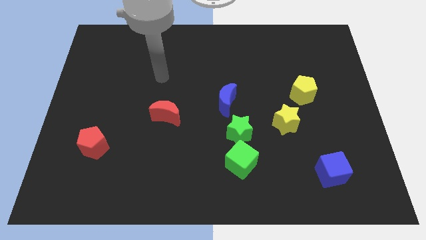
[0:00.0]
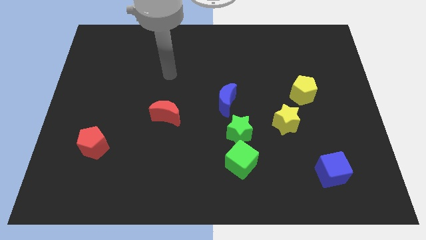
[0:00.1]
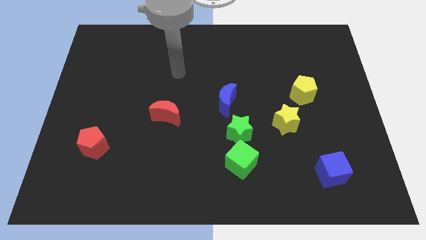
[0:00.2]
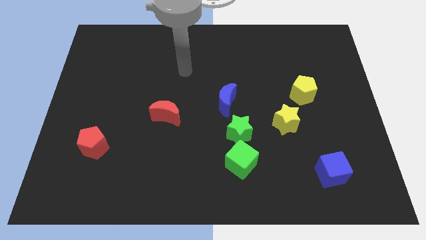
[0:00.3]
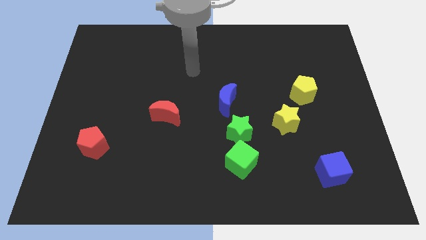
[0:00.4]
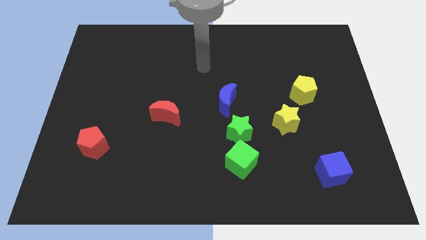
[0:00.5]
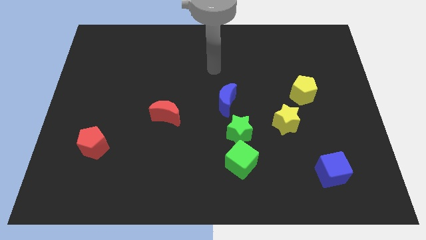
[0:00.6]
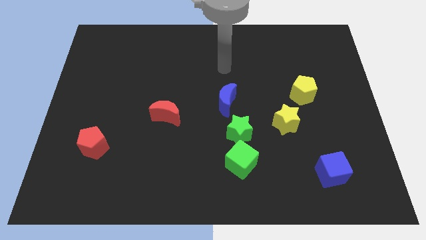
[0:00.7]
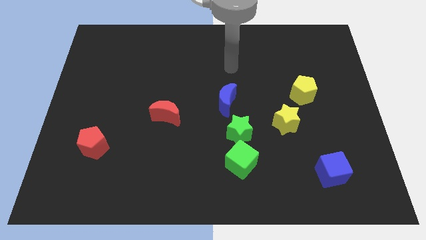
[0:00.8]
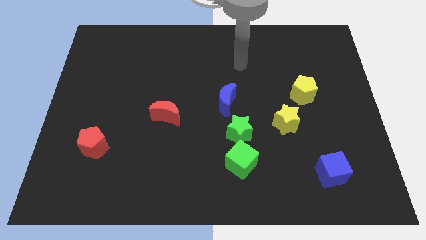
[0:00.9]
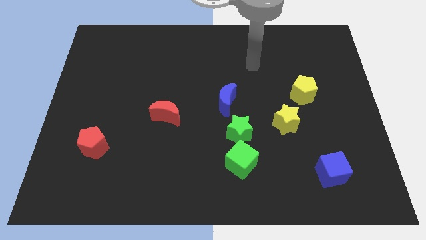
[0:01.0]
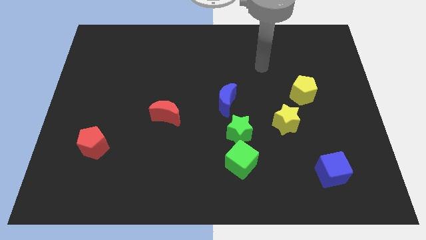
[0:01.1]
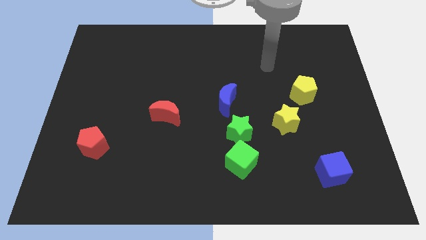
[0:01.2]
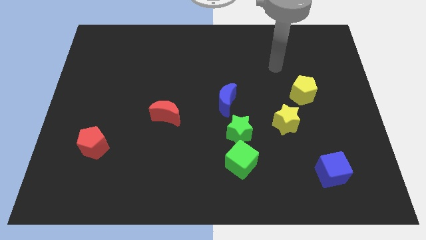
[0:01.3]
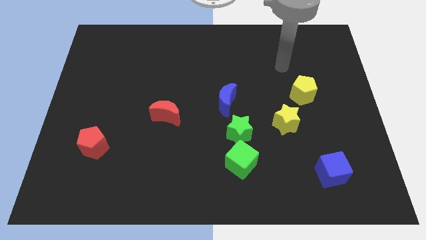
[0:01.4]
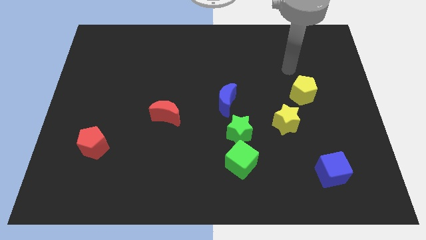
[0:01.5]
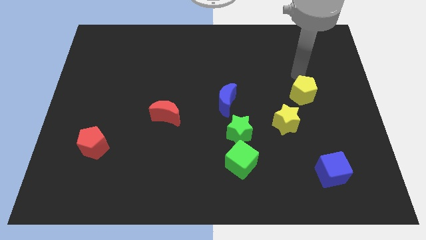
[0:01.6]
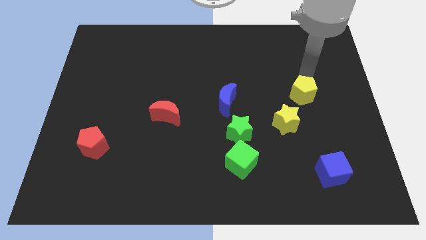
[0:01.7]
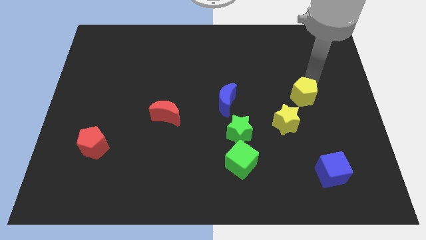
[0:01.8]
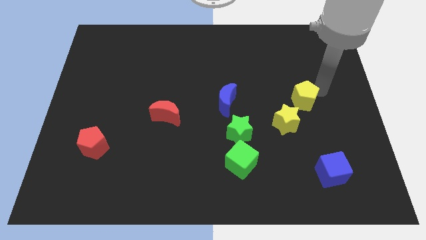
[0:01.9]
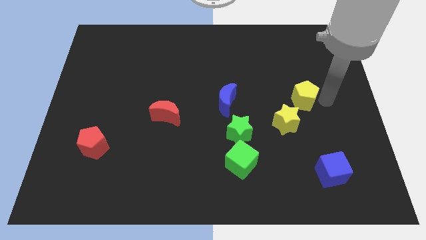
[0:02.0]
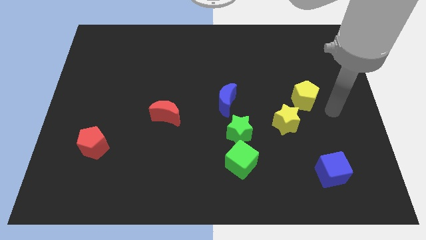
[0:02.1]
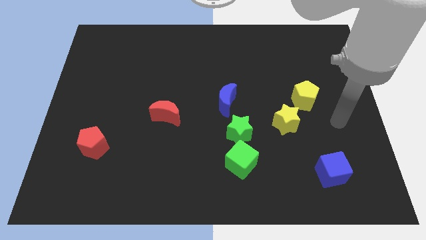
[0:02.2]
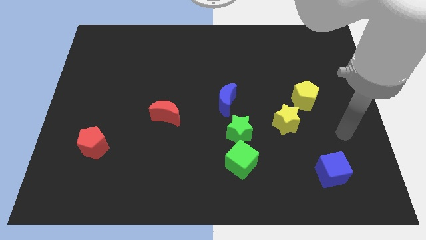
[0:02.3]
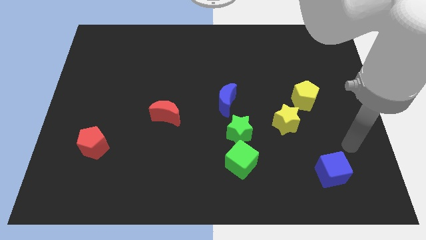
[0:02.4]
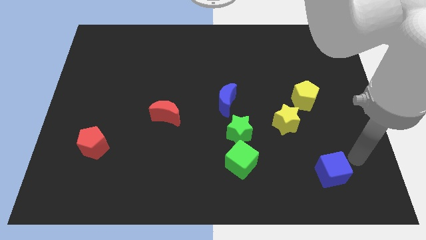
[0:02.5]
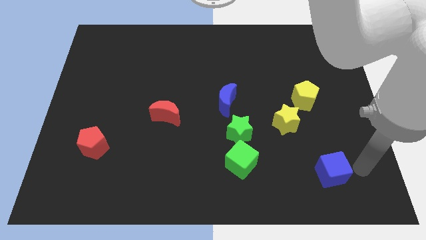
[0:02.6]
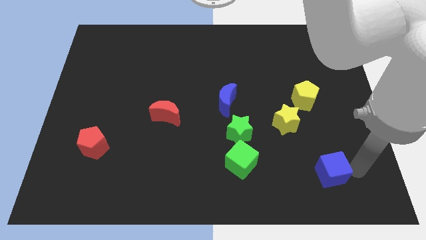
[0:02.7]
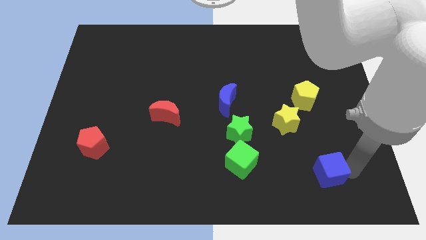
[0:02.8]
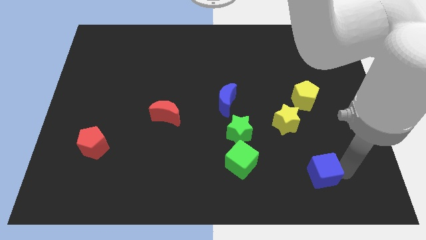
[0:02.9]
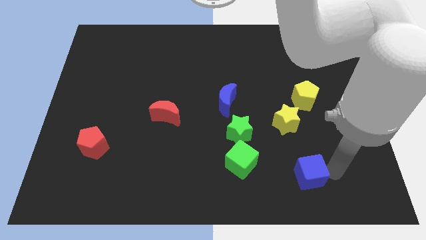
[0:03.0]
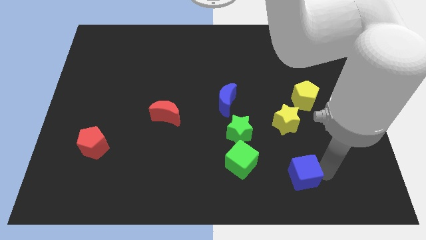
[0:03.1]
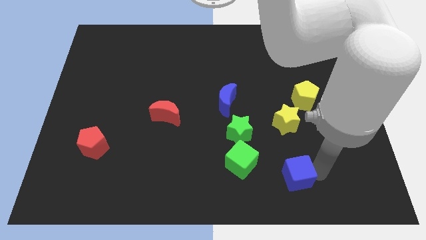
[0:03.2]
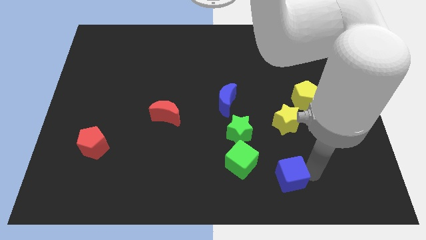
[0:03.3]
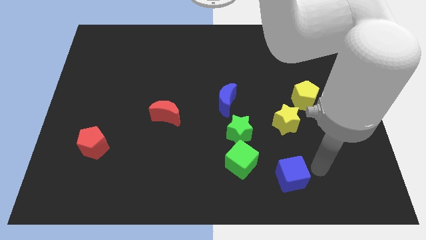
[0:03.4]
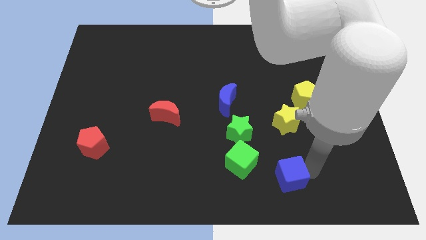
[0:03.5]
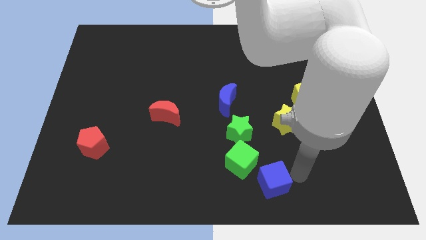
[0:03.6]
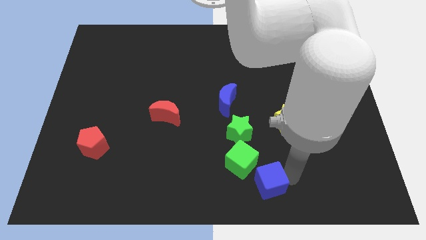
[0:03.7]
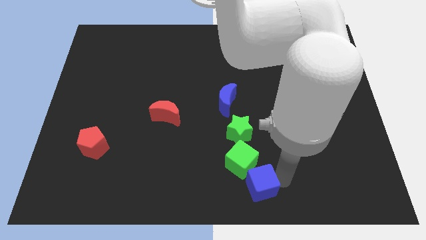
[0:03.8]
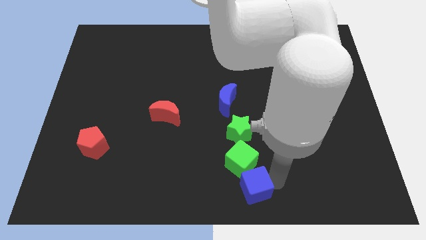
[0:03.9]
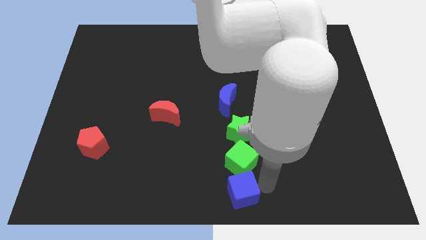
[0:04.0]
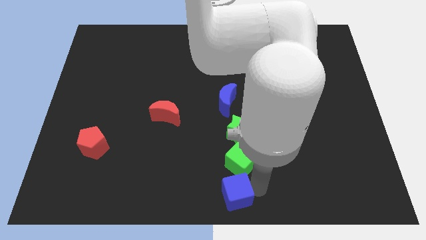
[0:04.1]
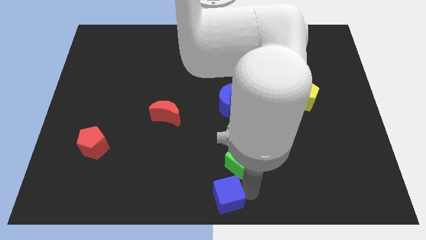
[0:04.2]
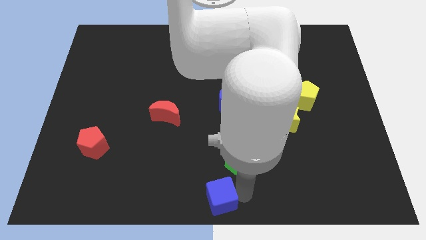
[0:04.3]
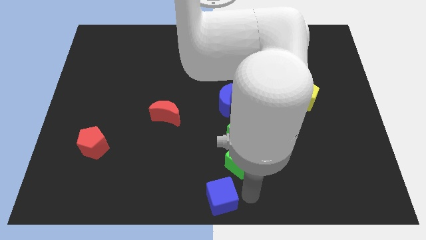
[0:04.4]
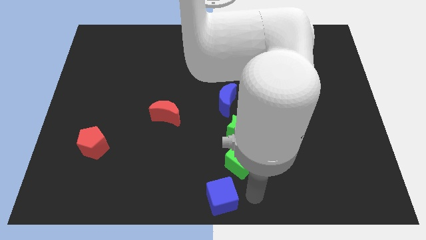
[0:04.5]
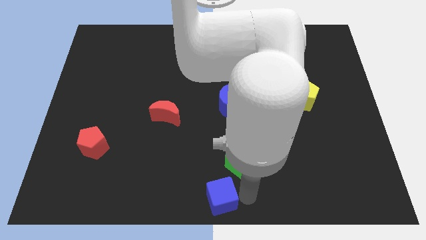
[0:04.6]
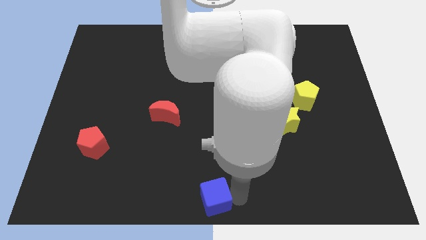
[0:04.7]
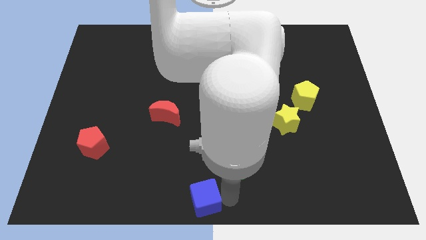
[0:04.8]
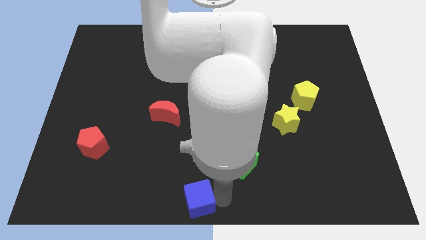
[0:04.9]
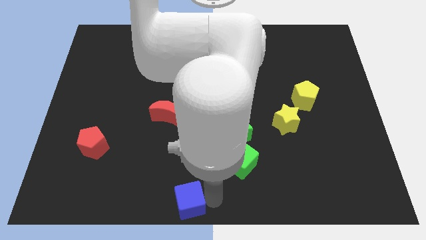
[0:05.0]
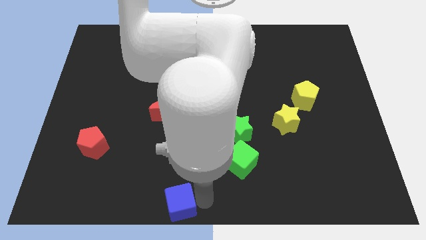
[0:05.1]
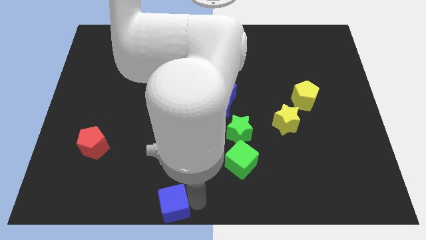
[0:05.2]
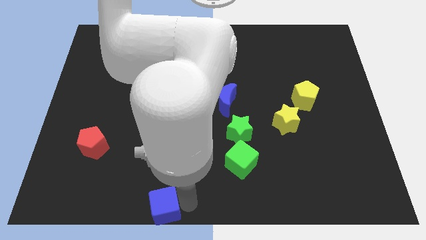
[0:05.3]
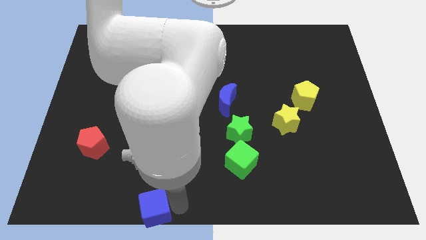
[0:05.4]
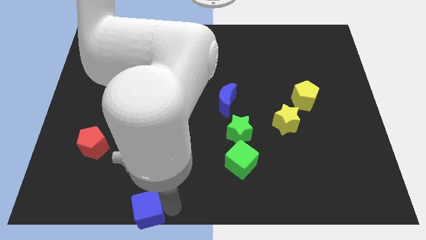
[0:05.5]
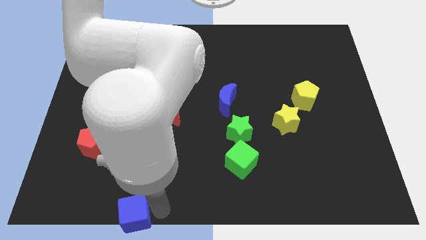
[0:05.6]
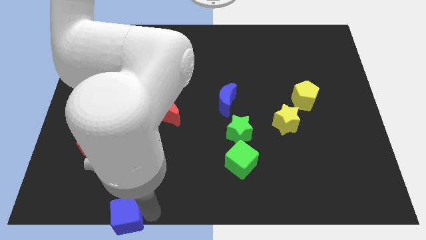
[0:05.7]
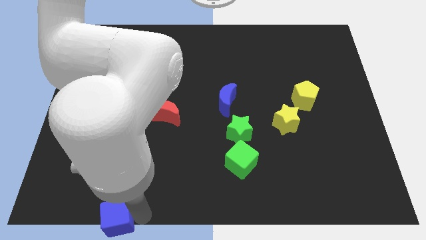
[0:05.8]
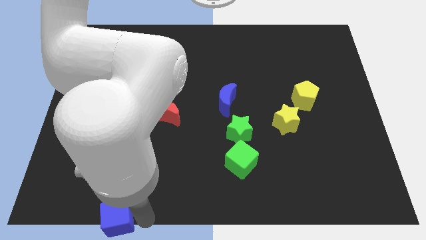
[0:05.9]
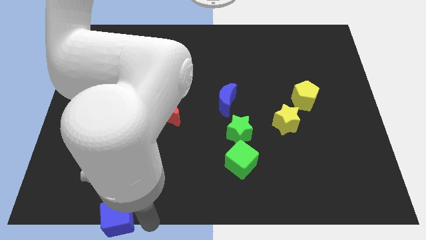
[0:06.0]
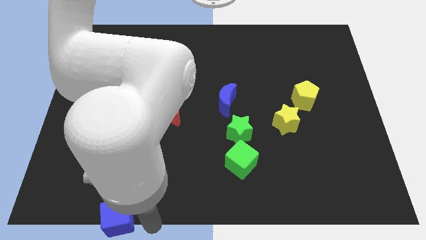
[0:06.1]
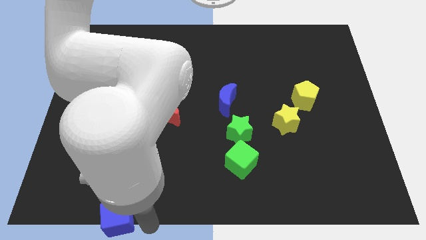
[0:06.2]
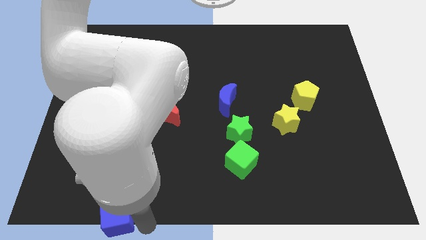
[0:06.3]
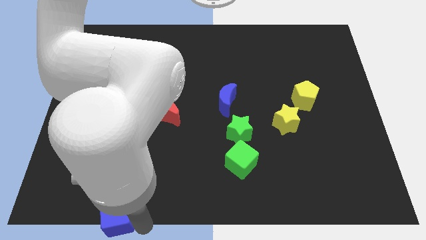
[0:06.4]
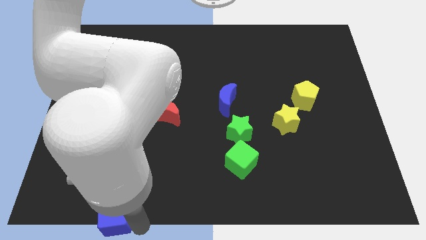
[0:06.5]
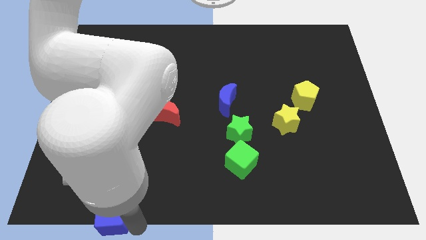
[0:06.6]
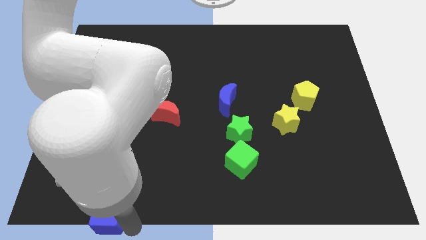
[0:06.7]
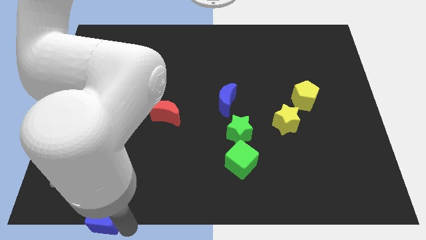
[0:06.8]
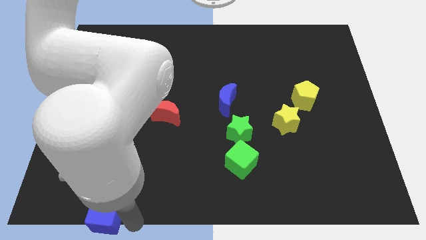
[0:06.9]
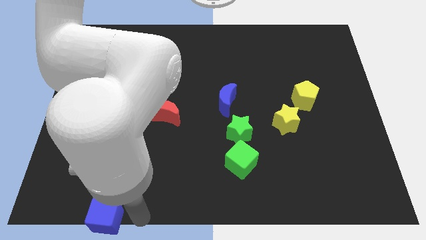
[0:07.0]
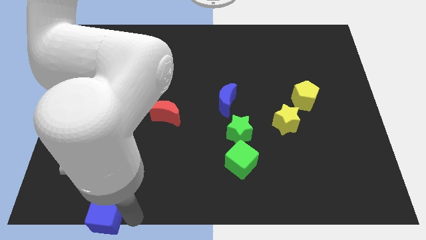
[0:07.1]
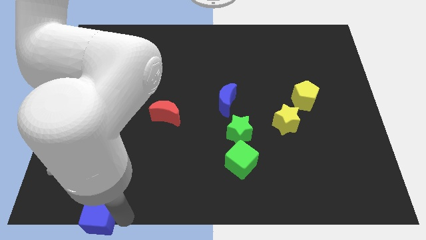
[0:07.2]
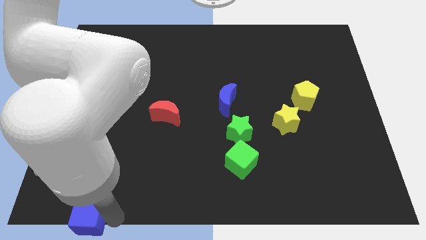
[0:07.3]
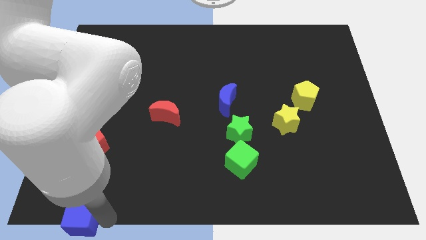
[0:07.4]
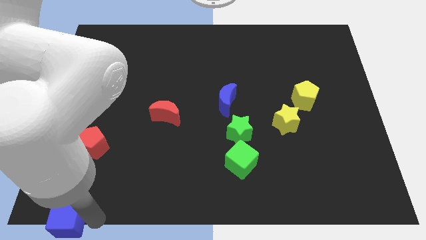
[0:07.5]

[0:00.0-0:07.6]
slide the blue cube to the lower left corner
